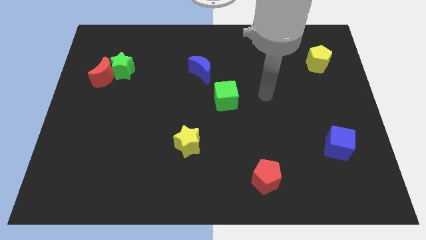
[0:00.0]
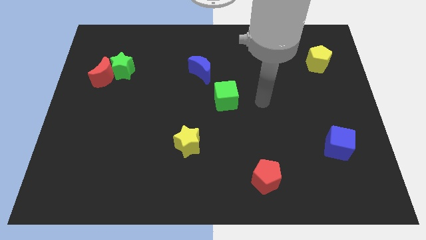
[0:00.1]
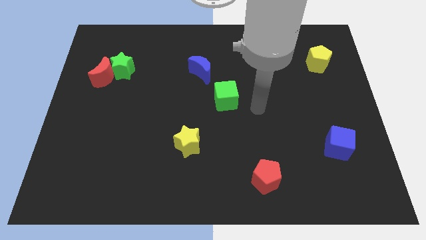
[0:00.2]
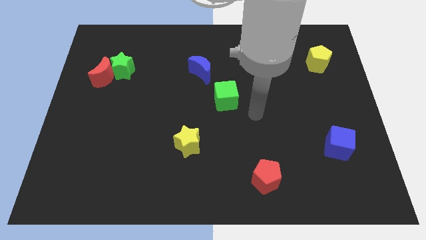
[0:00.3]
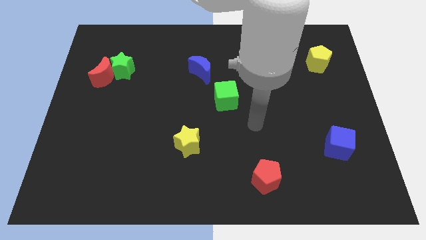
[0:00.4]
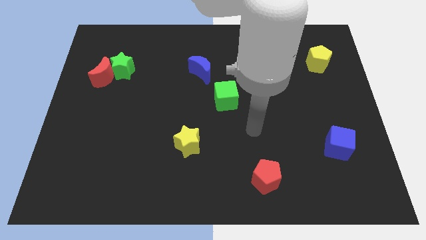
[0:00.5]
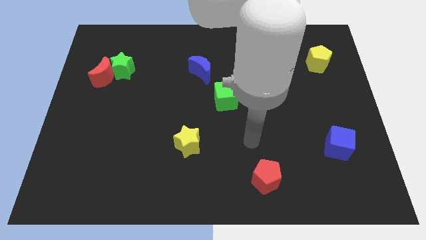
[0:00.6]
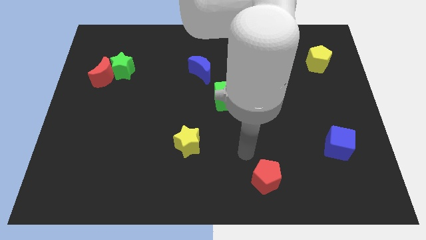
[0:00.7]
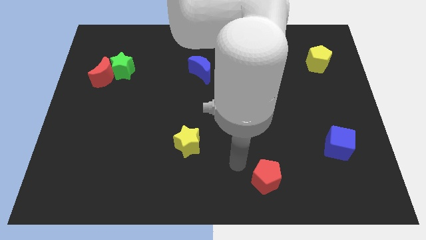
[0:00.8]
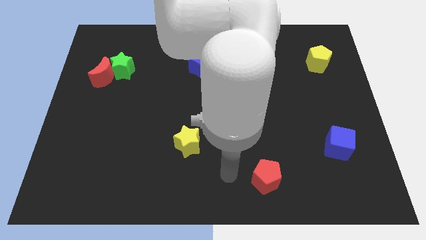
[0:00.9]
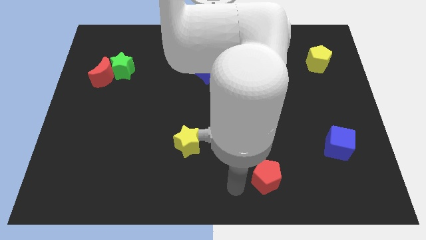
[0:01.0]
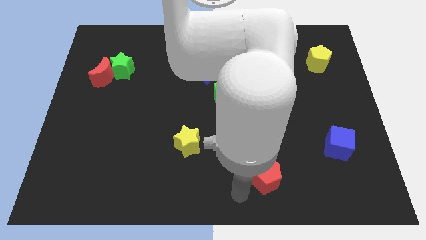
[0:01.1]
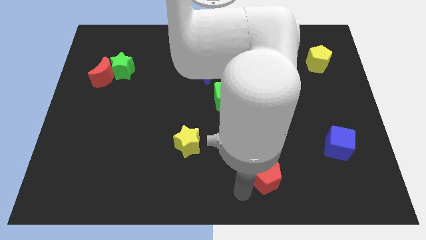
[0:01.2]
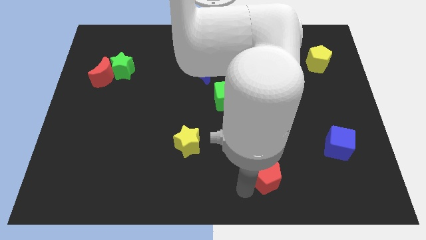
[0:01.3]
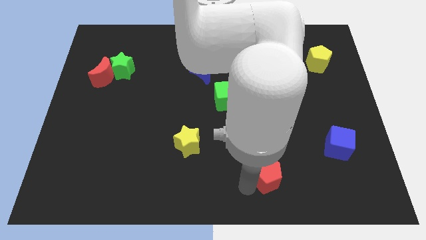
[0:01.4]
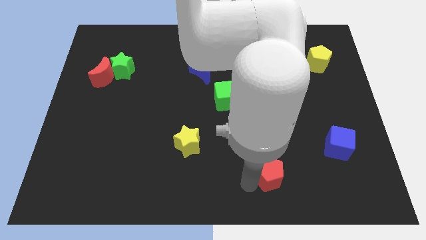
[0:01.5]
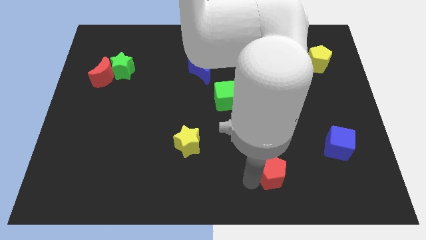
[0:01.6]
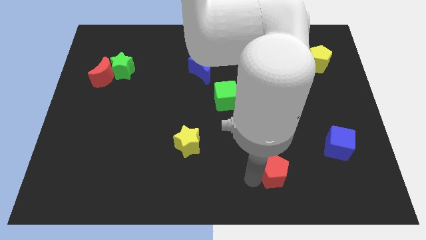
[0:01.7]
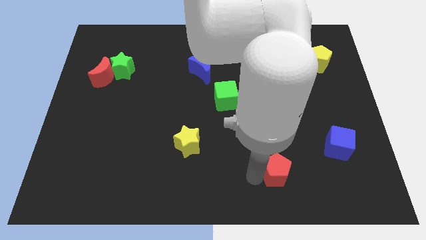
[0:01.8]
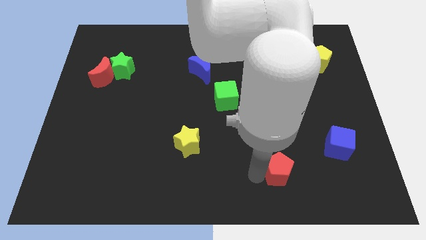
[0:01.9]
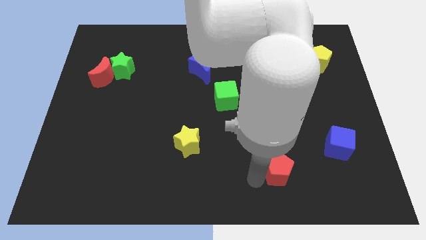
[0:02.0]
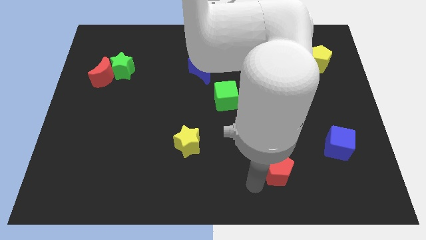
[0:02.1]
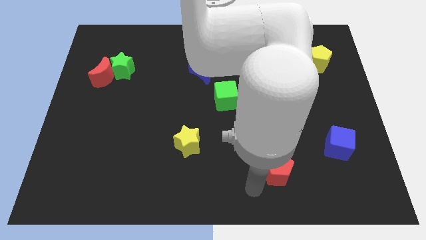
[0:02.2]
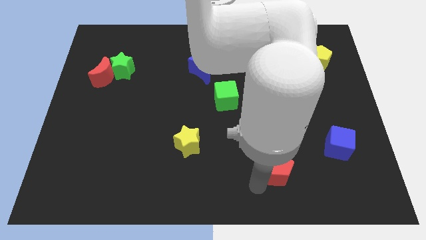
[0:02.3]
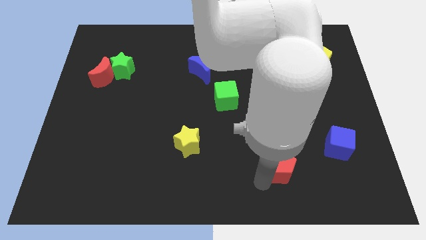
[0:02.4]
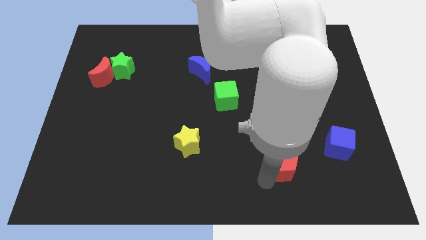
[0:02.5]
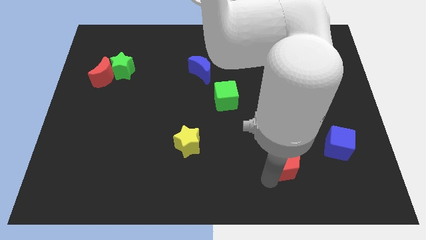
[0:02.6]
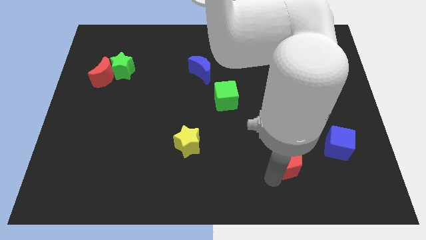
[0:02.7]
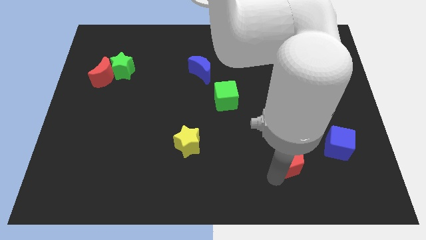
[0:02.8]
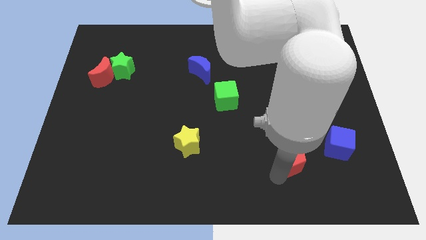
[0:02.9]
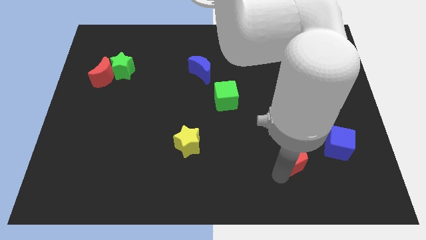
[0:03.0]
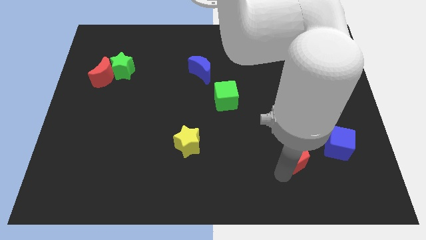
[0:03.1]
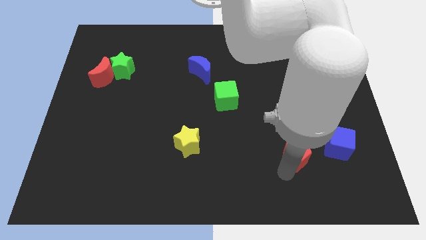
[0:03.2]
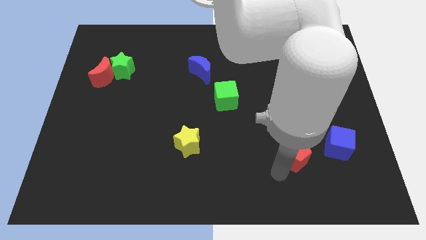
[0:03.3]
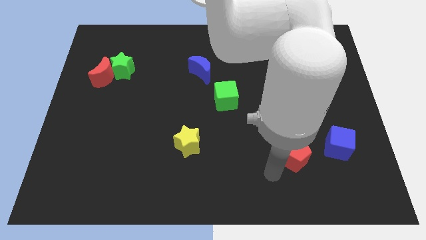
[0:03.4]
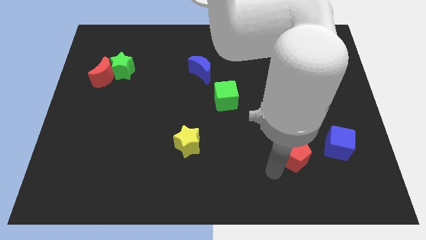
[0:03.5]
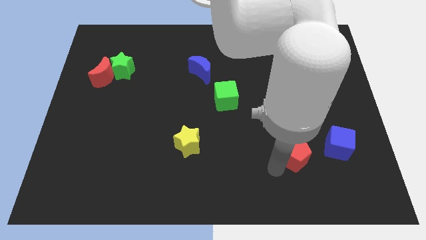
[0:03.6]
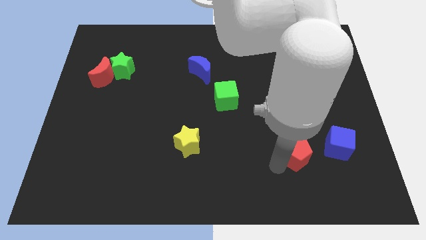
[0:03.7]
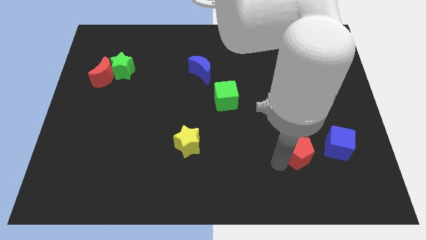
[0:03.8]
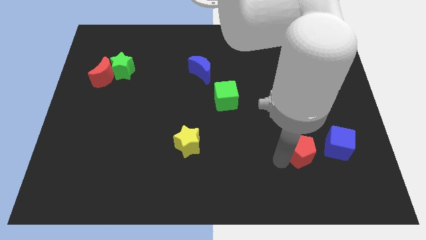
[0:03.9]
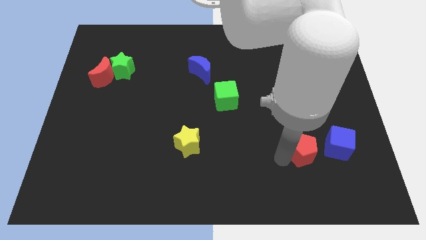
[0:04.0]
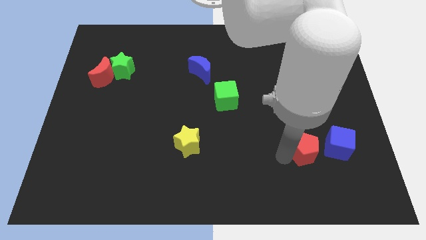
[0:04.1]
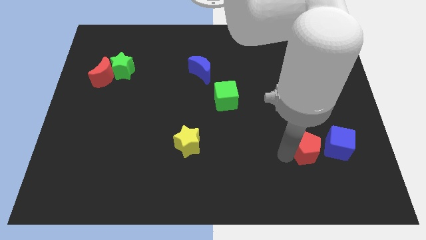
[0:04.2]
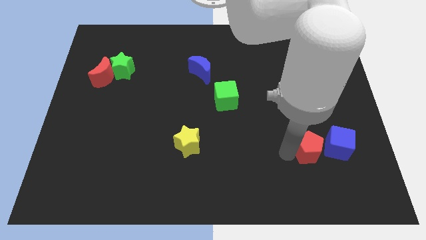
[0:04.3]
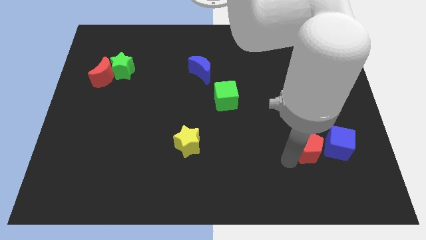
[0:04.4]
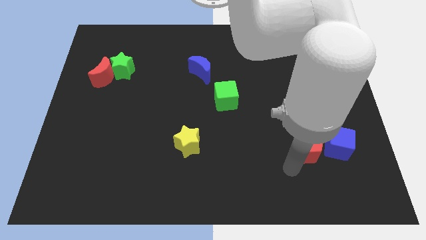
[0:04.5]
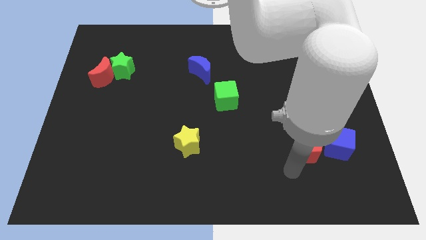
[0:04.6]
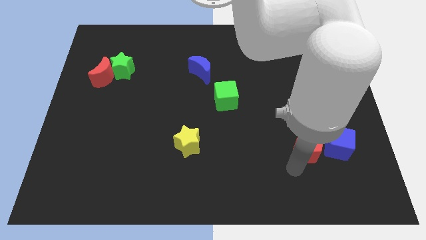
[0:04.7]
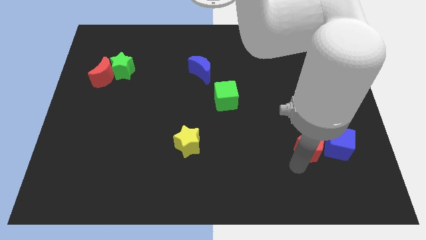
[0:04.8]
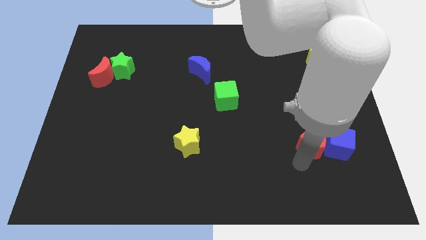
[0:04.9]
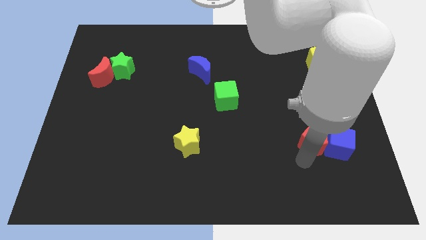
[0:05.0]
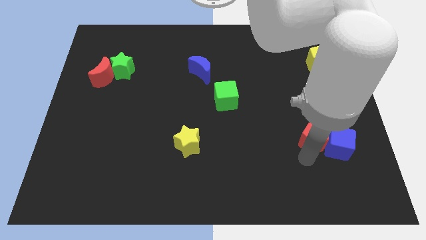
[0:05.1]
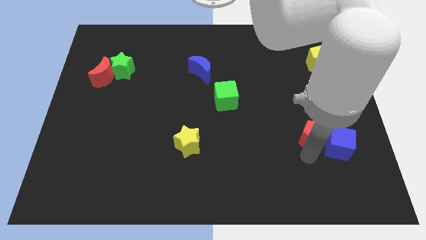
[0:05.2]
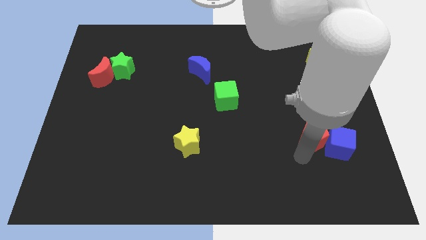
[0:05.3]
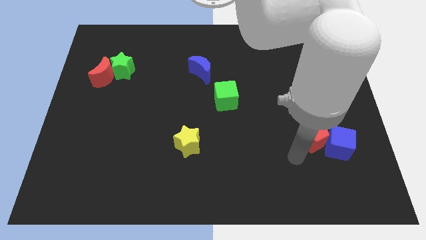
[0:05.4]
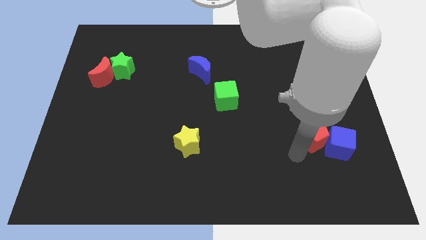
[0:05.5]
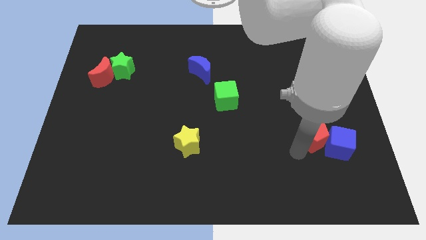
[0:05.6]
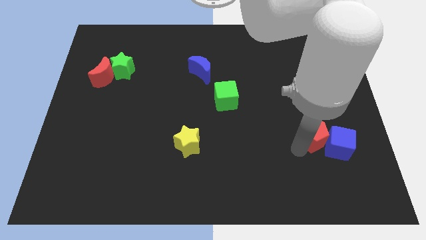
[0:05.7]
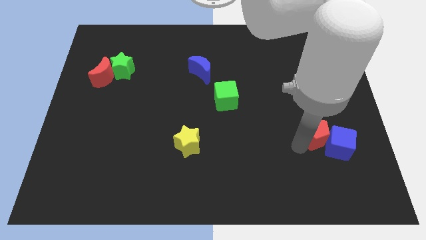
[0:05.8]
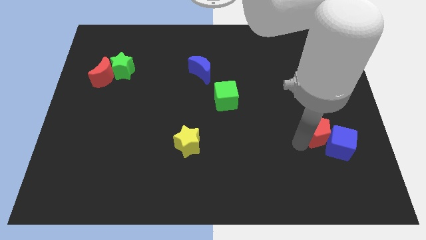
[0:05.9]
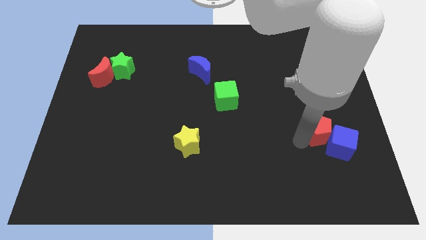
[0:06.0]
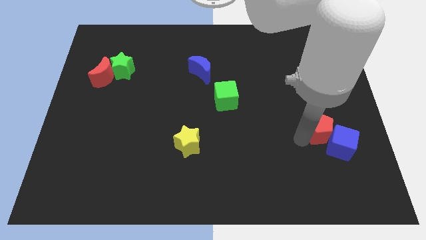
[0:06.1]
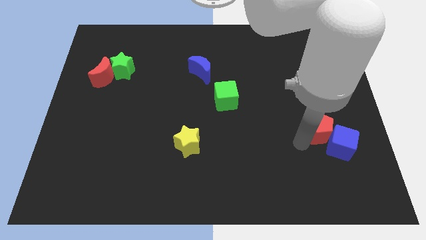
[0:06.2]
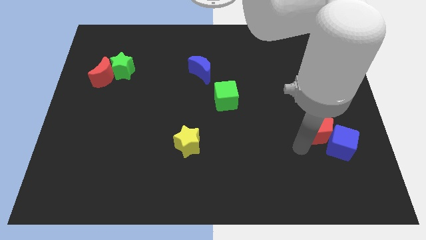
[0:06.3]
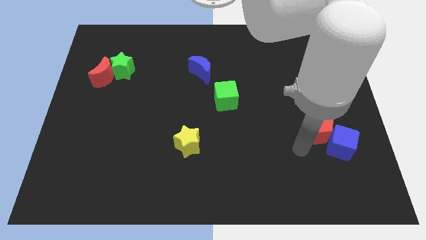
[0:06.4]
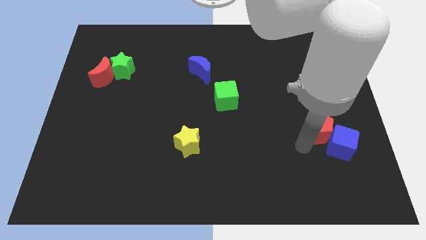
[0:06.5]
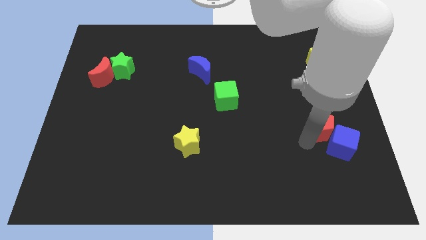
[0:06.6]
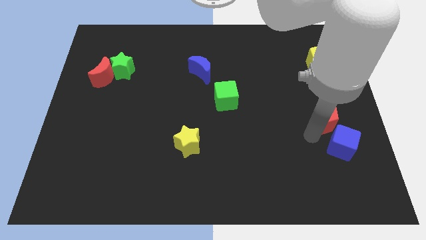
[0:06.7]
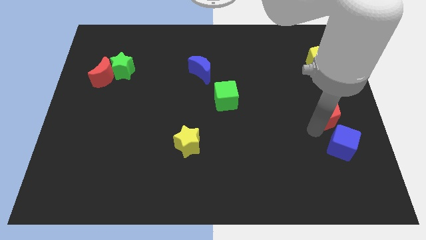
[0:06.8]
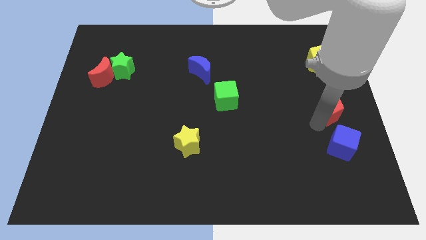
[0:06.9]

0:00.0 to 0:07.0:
slide the red pentagon to the right side of the board

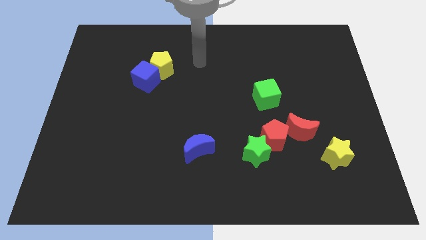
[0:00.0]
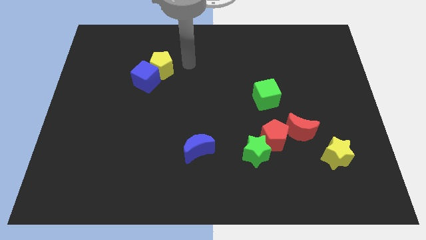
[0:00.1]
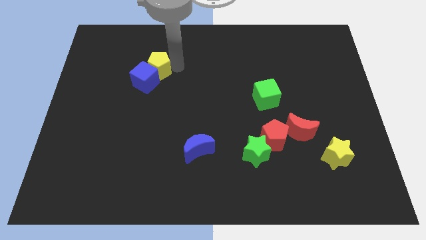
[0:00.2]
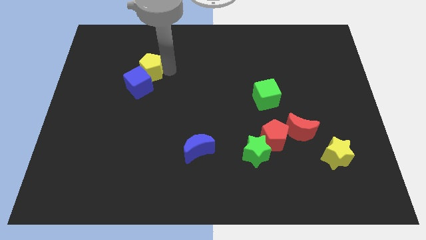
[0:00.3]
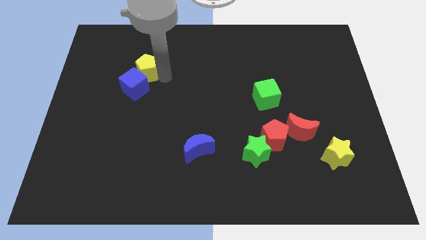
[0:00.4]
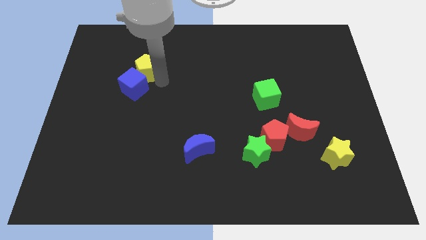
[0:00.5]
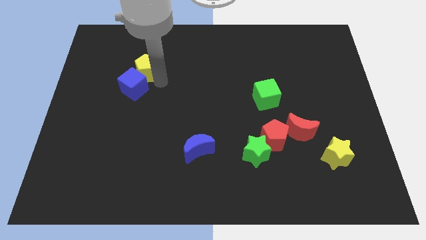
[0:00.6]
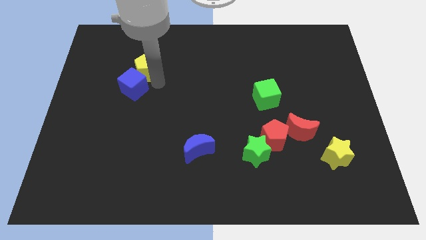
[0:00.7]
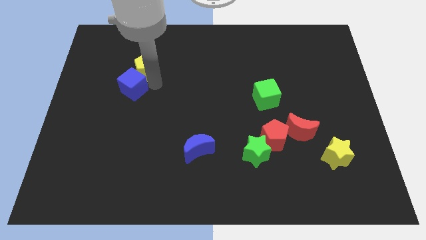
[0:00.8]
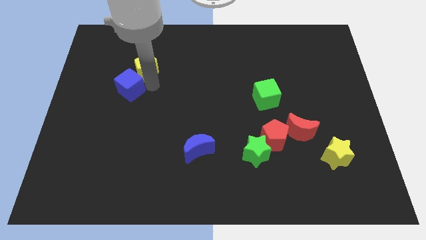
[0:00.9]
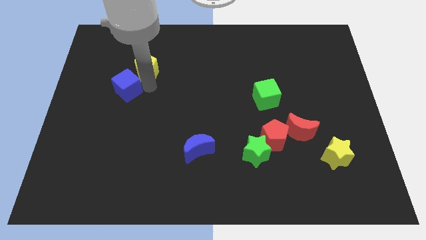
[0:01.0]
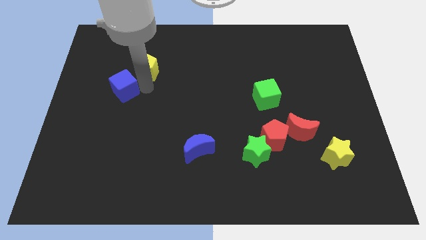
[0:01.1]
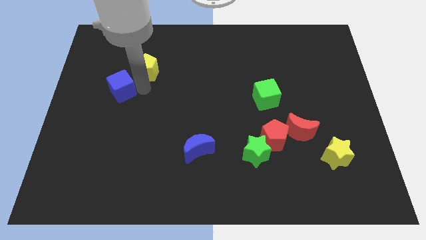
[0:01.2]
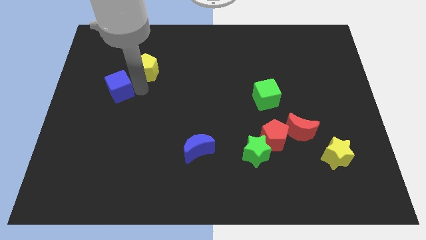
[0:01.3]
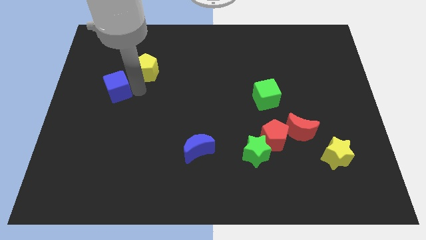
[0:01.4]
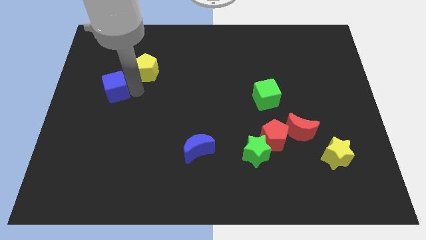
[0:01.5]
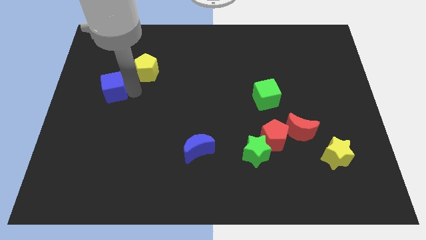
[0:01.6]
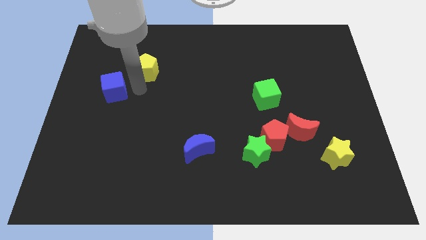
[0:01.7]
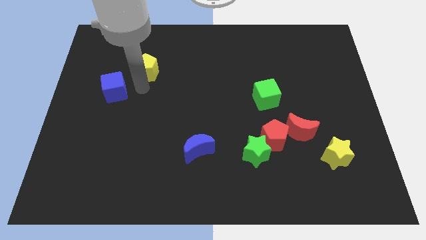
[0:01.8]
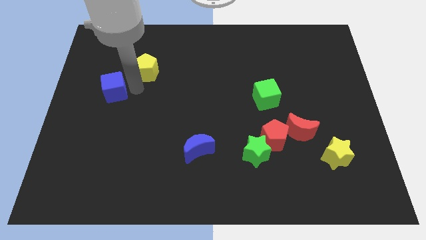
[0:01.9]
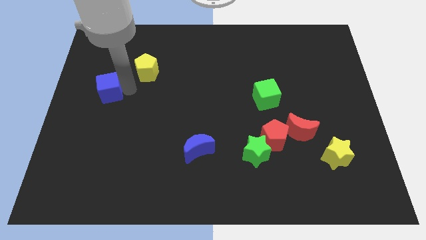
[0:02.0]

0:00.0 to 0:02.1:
slide the blue cube to the left side
